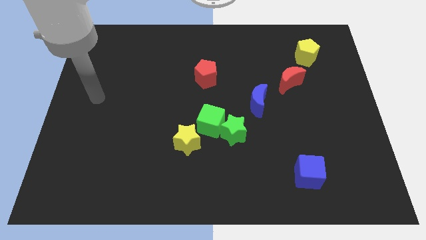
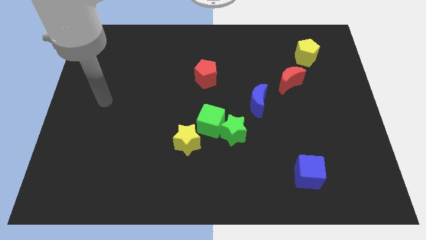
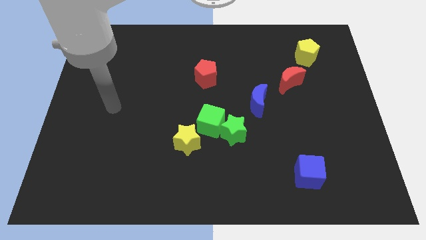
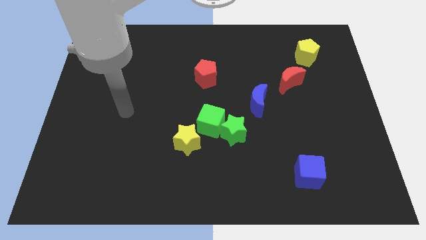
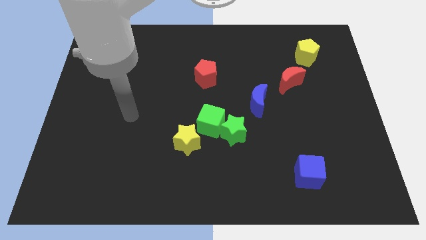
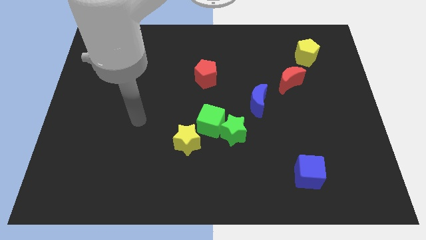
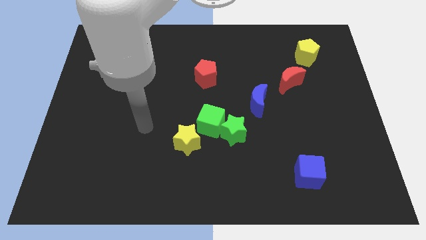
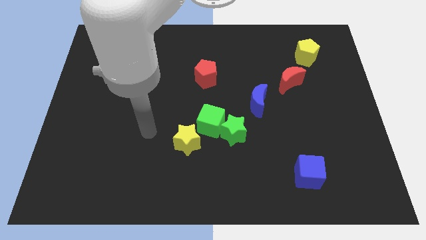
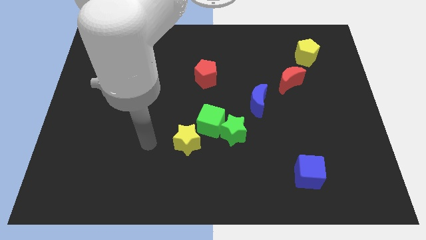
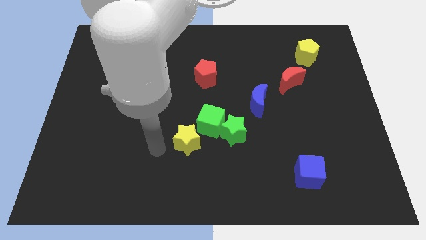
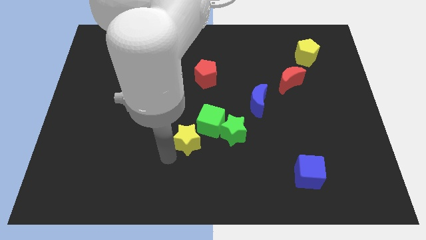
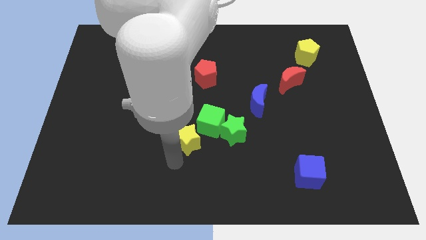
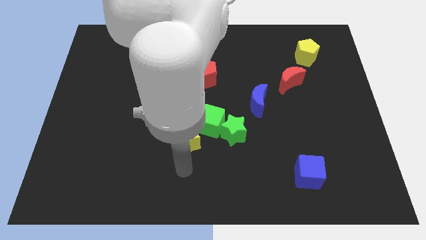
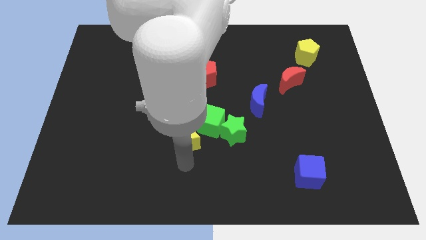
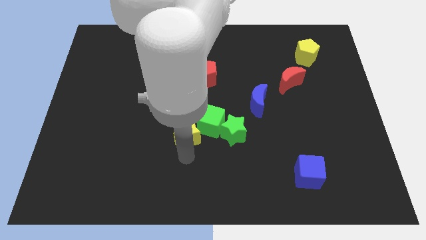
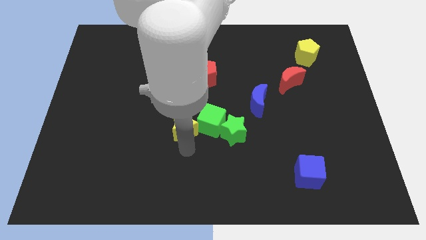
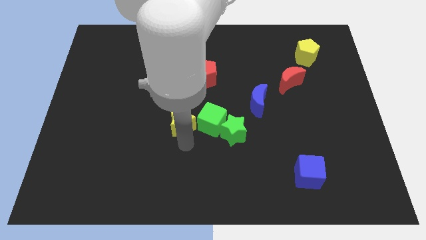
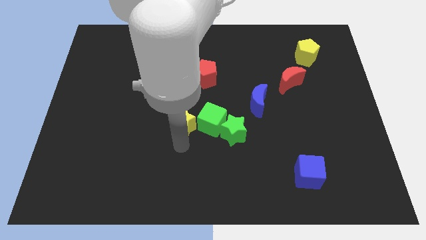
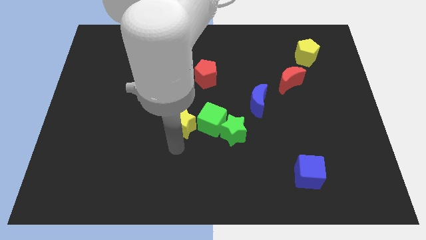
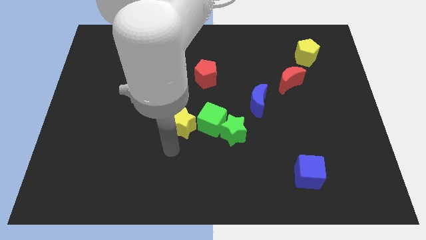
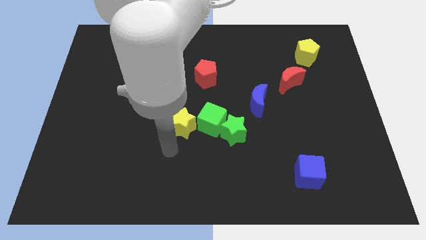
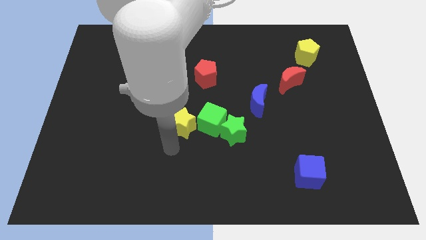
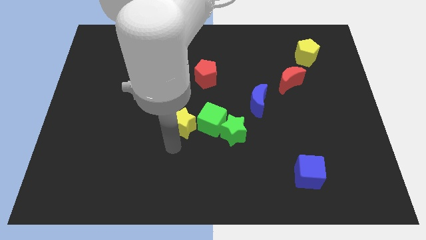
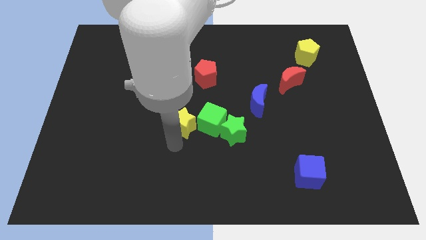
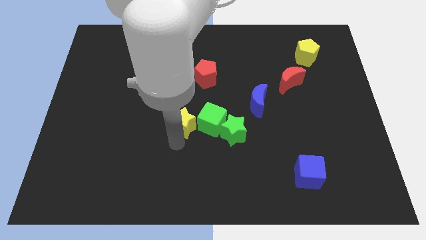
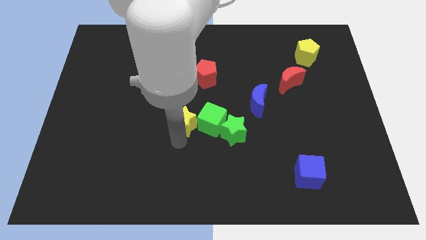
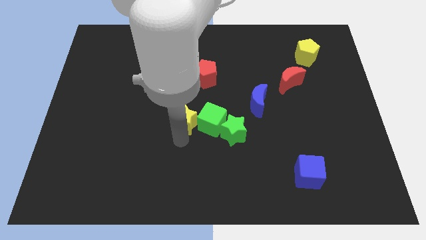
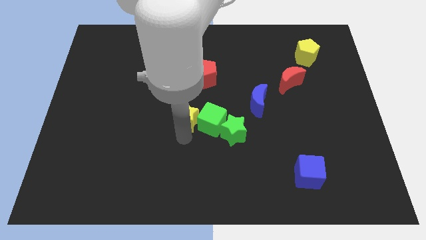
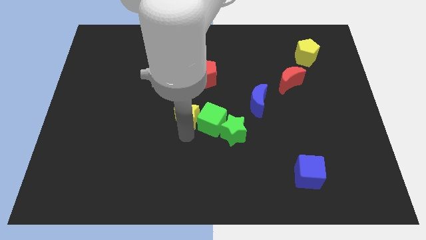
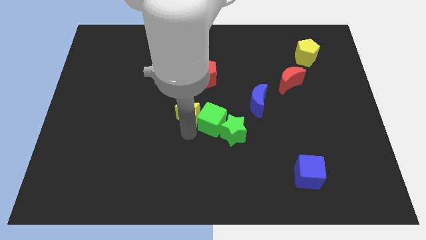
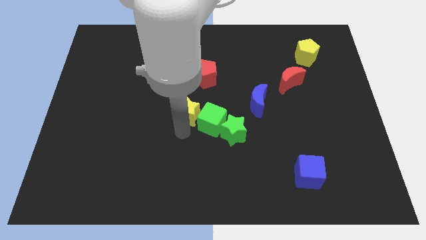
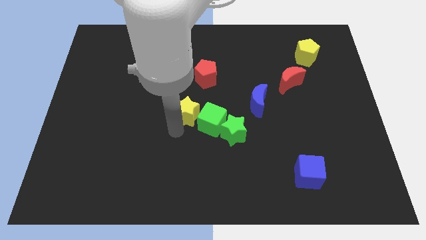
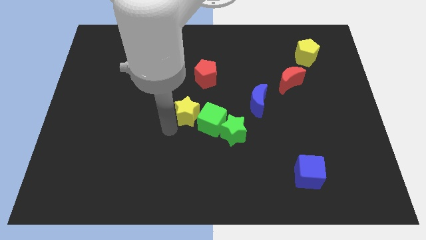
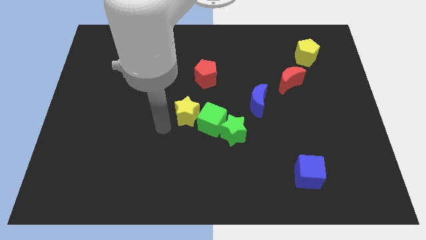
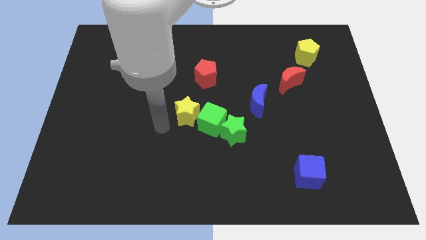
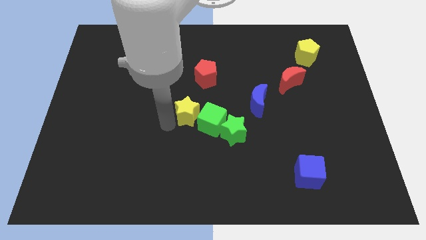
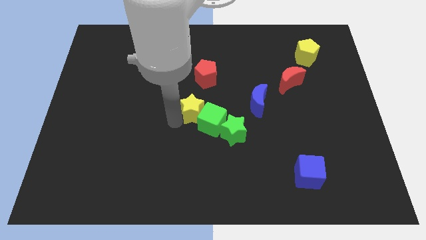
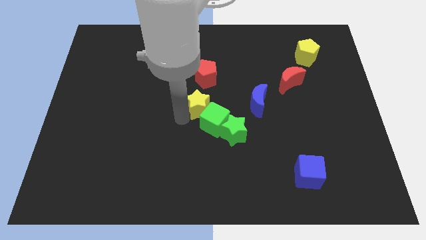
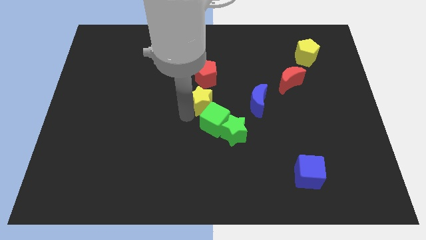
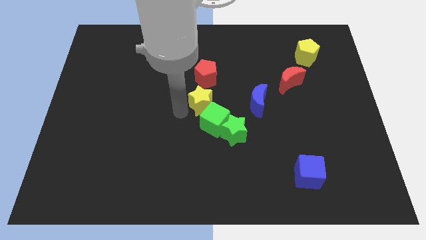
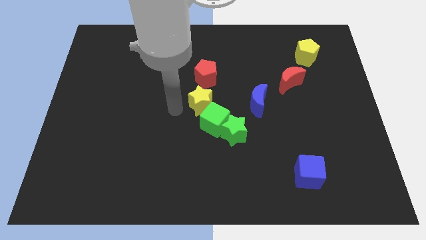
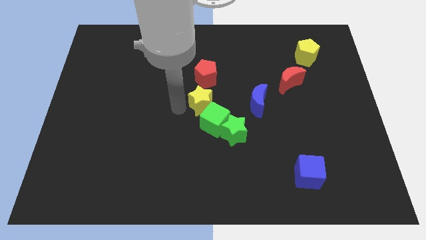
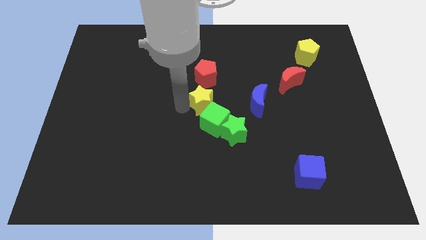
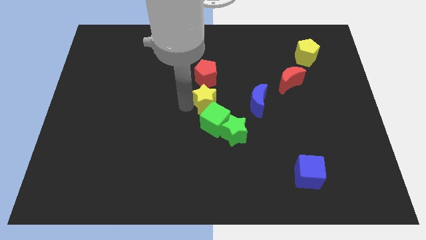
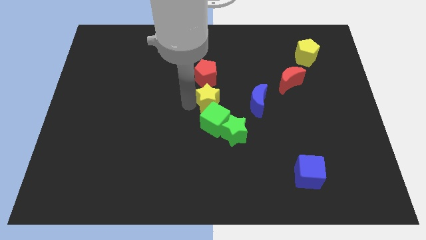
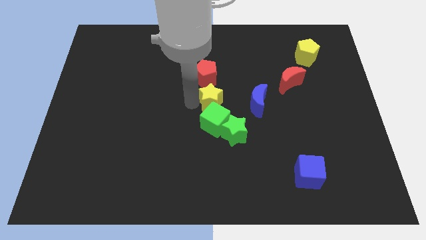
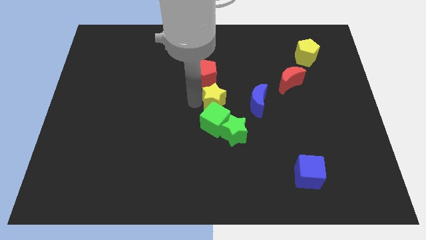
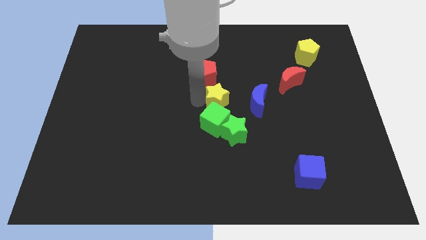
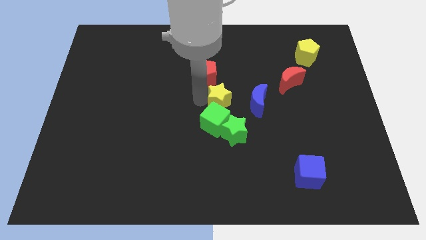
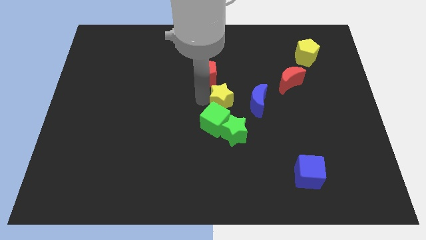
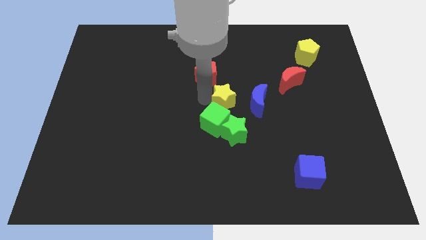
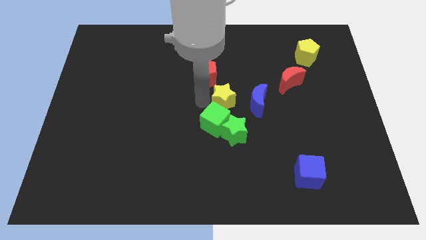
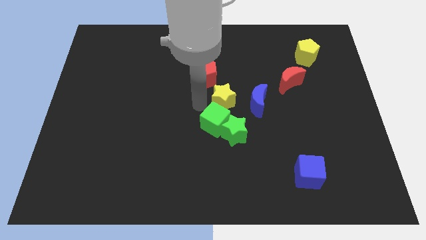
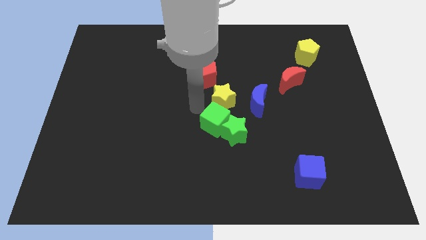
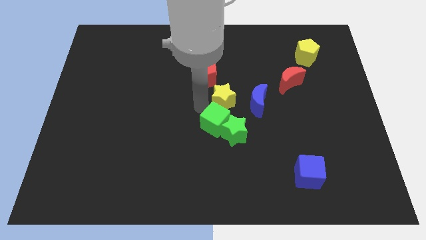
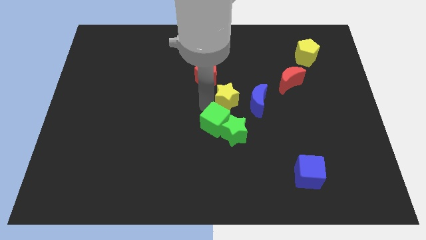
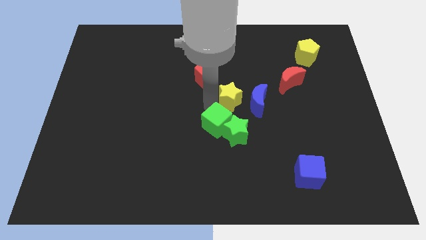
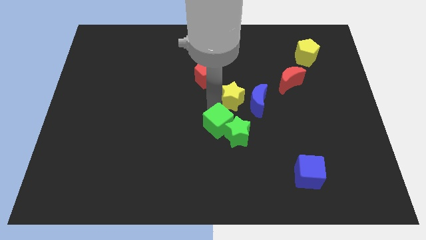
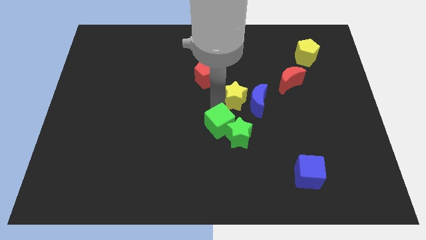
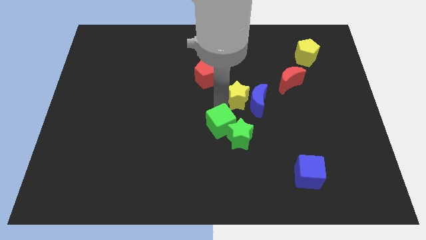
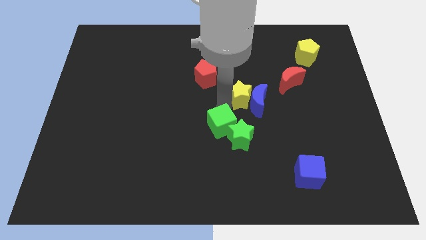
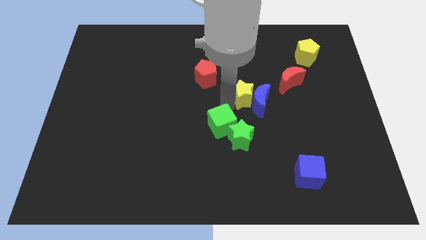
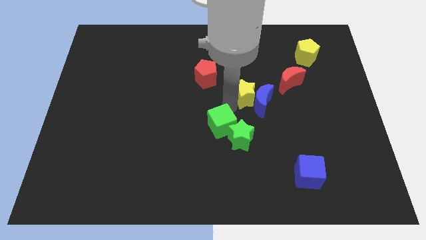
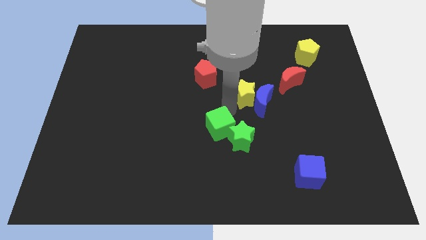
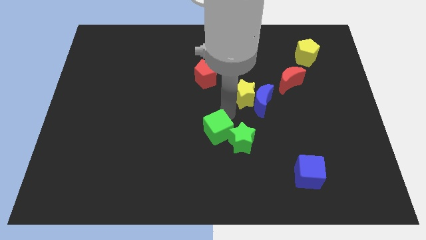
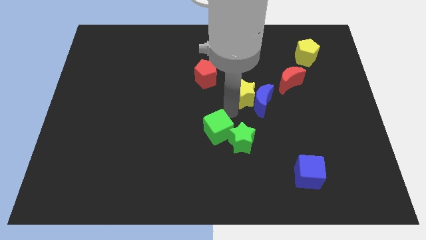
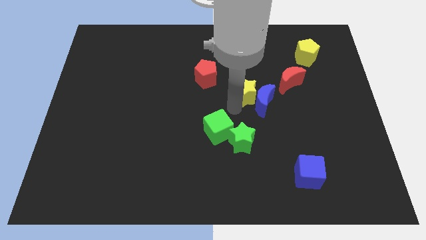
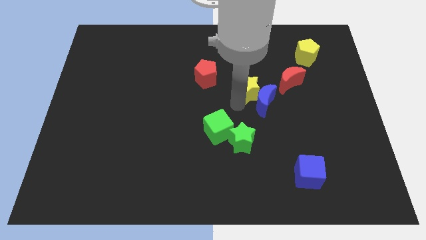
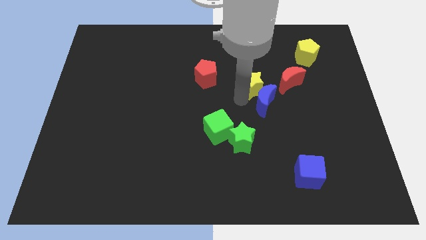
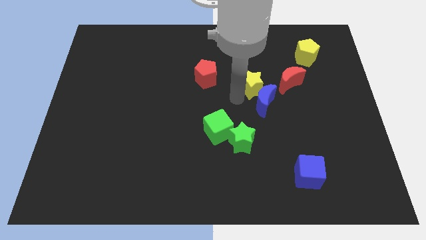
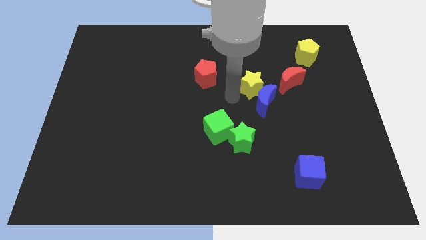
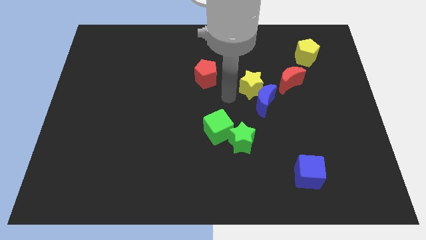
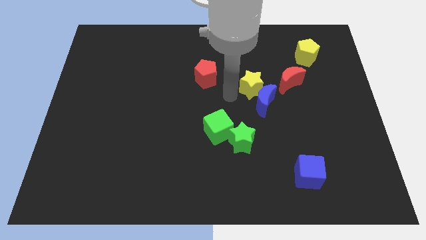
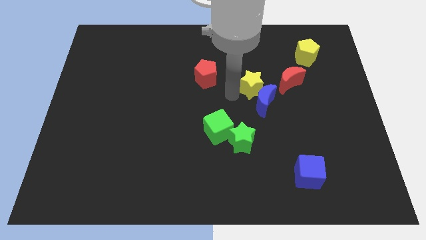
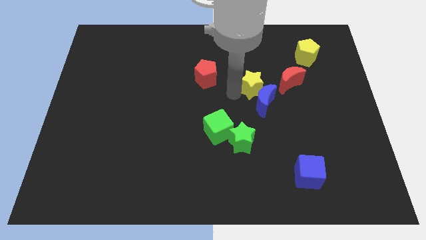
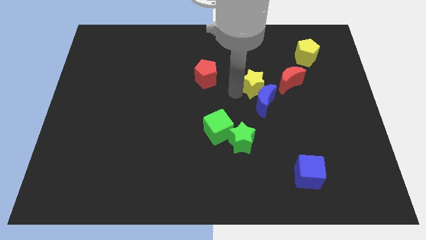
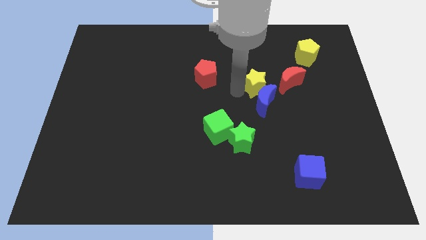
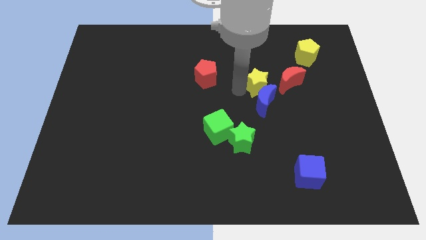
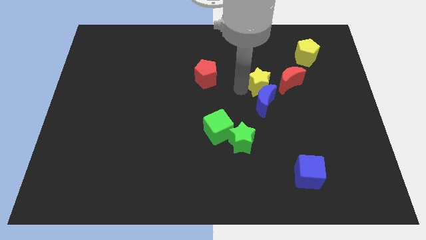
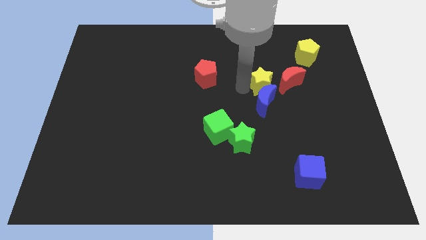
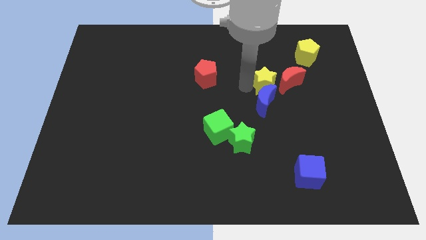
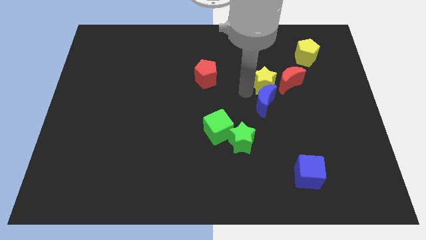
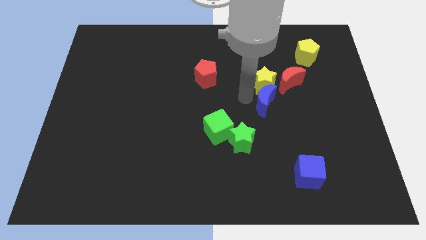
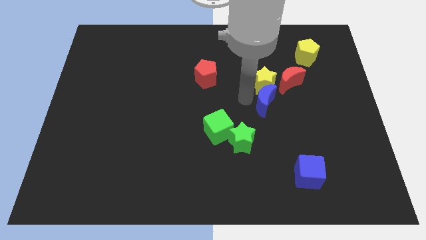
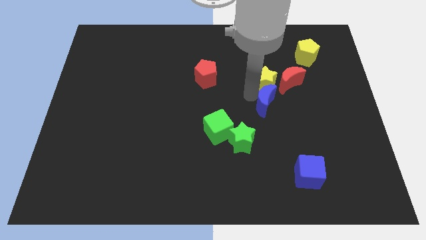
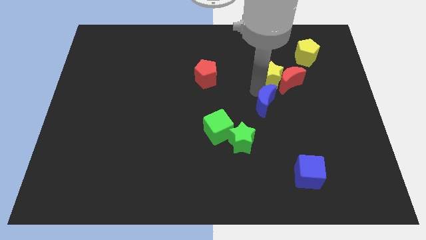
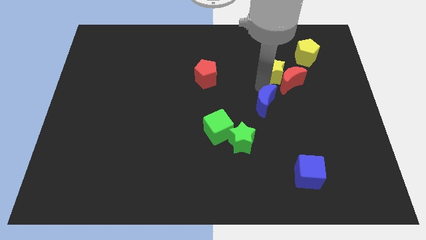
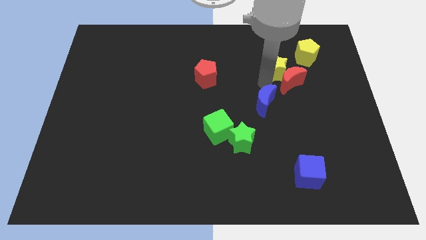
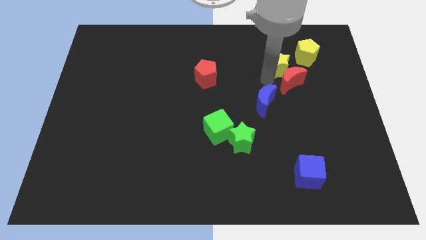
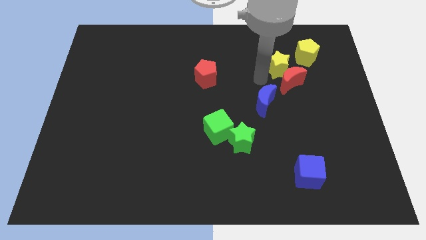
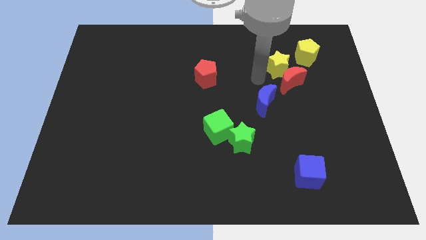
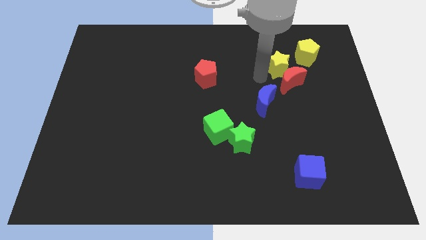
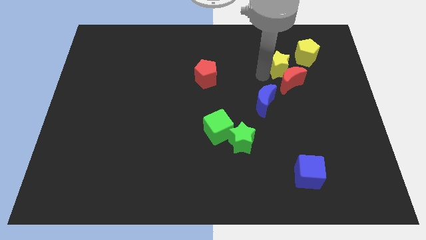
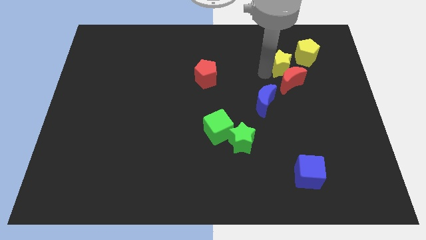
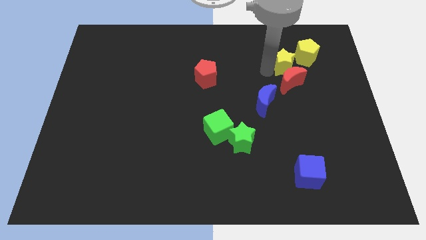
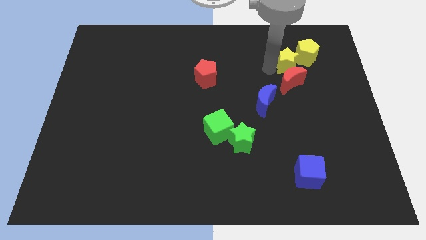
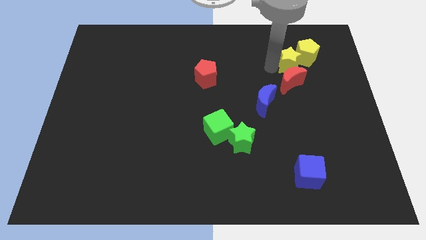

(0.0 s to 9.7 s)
put the yellow star close to the yellow pentagon
